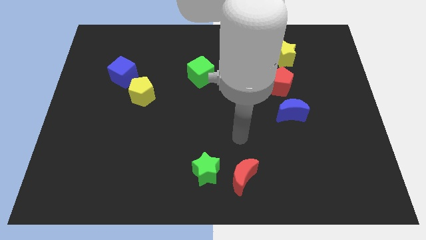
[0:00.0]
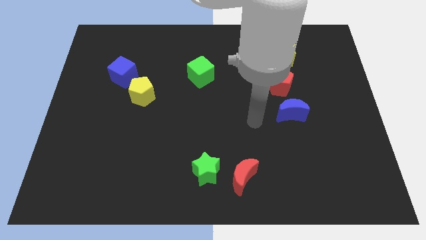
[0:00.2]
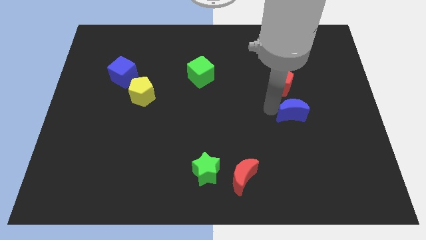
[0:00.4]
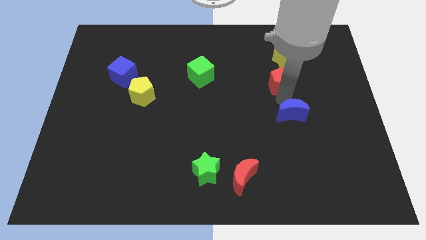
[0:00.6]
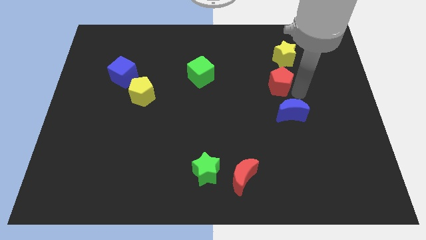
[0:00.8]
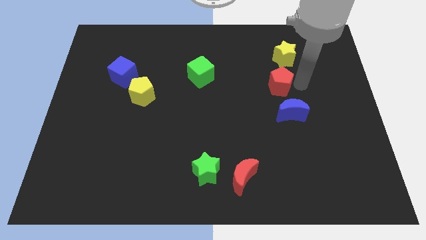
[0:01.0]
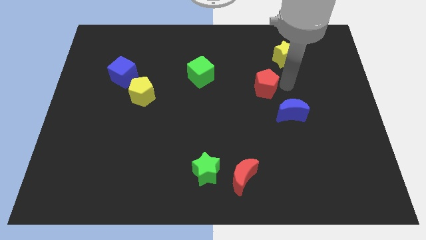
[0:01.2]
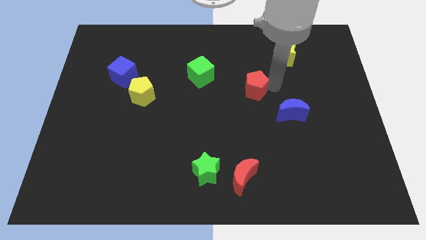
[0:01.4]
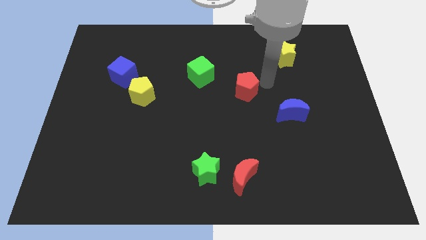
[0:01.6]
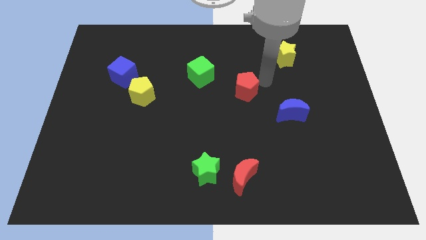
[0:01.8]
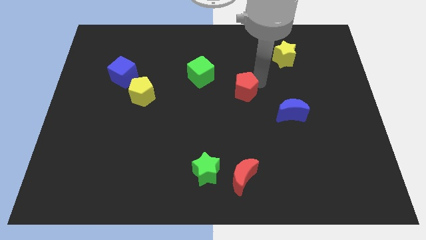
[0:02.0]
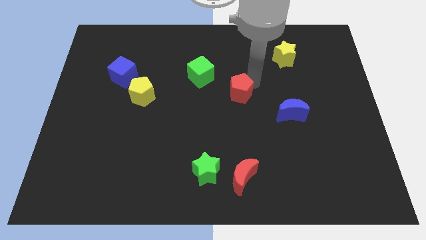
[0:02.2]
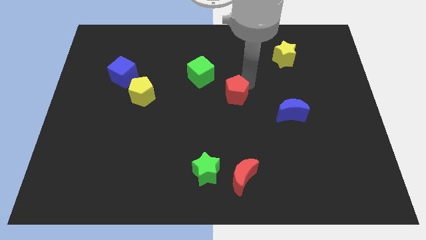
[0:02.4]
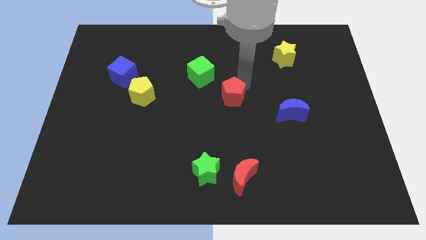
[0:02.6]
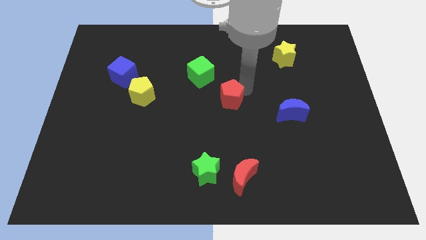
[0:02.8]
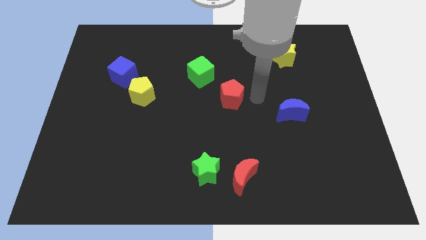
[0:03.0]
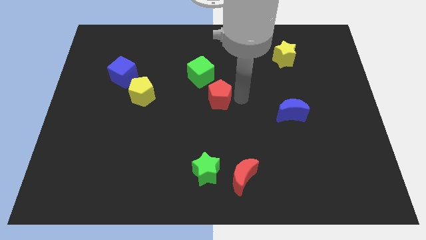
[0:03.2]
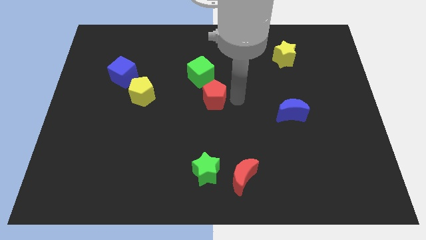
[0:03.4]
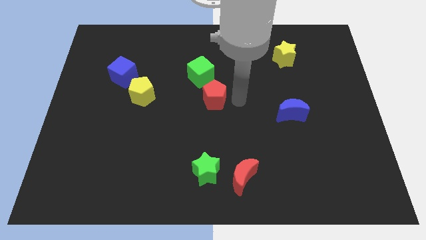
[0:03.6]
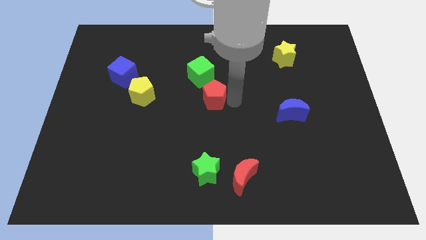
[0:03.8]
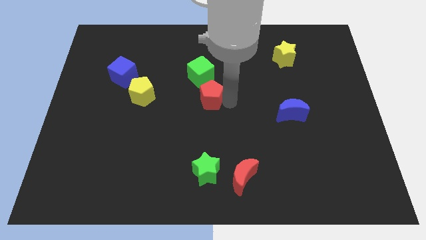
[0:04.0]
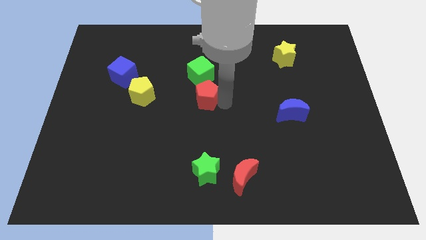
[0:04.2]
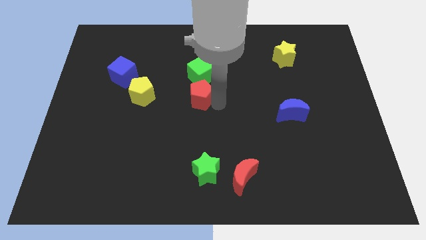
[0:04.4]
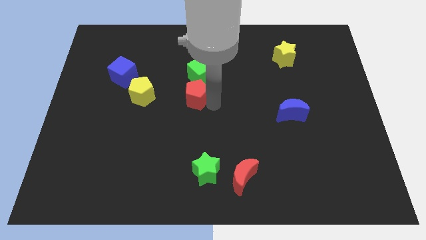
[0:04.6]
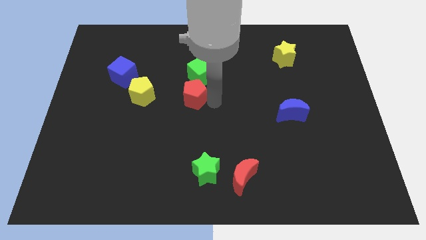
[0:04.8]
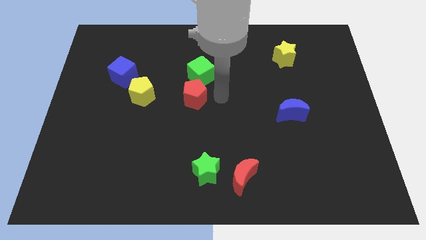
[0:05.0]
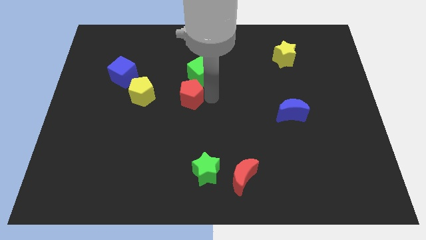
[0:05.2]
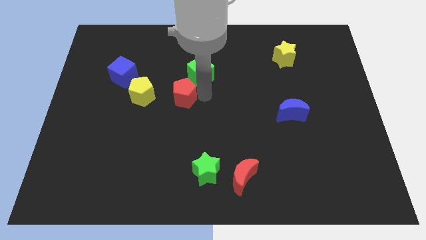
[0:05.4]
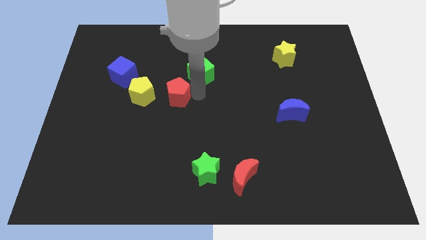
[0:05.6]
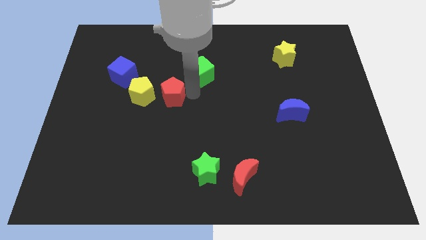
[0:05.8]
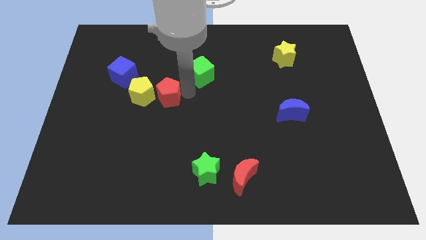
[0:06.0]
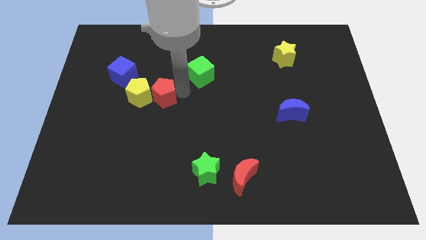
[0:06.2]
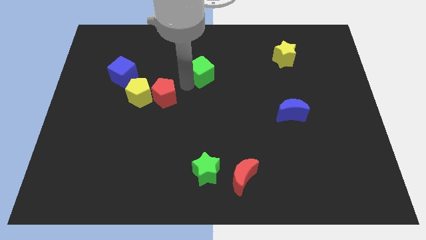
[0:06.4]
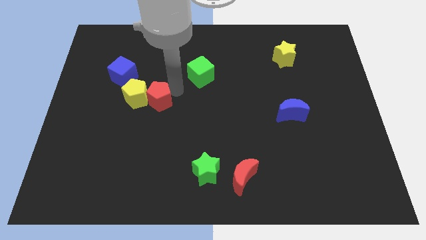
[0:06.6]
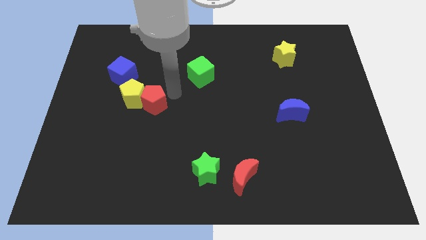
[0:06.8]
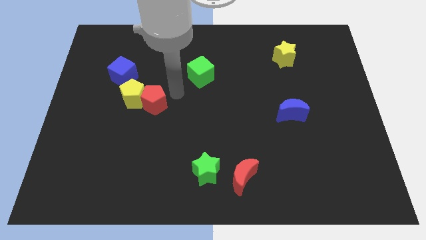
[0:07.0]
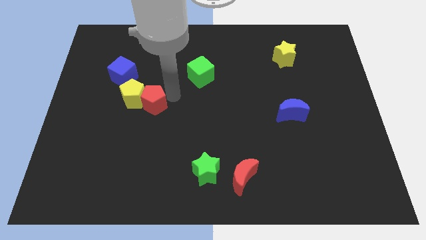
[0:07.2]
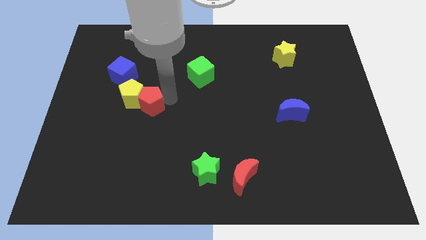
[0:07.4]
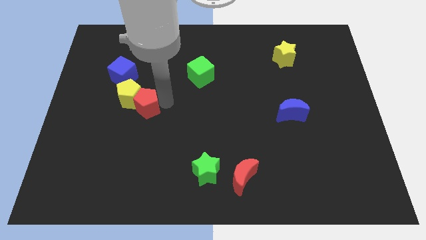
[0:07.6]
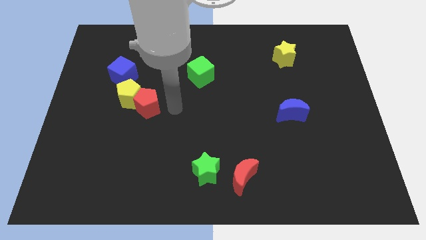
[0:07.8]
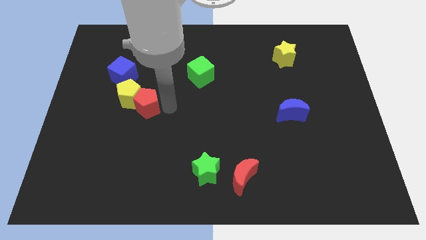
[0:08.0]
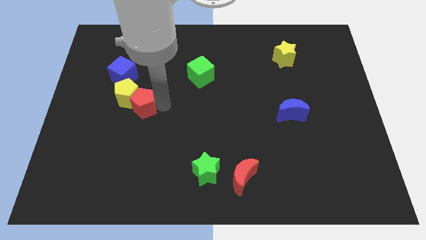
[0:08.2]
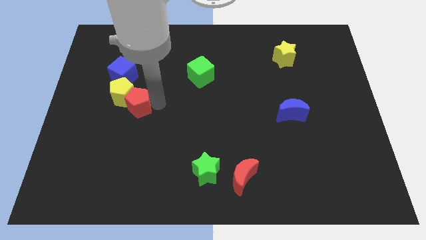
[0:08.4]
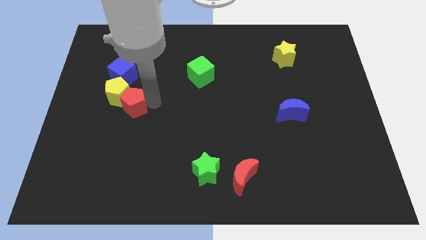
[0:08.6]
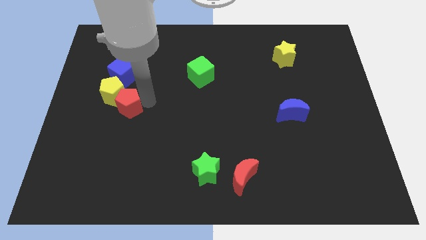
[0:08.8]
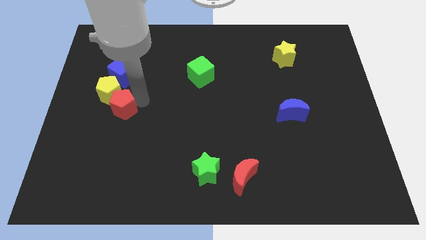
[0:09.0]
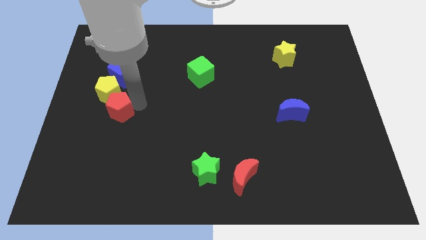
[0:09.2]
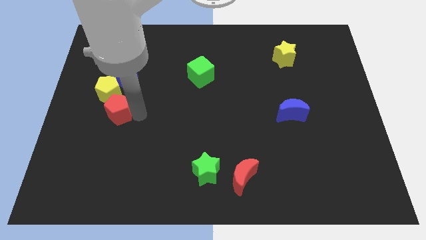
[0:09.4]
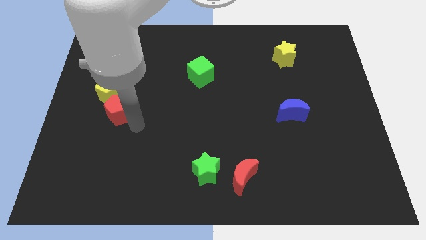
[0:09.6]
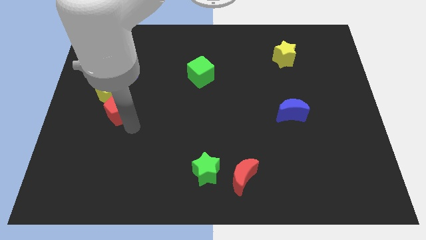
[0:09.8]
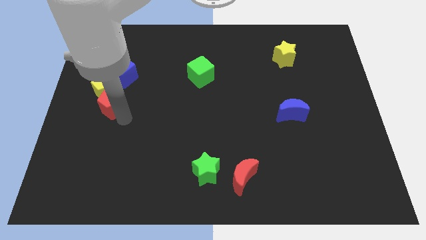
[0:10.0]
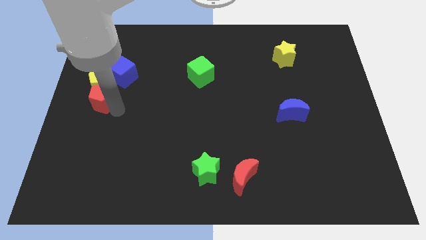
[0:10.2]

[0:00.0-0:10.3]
push the red pentagon to the left side of the board

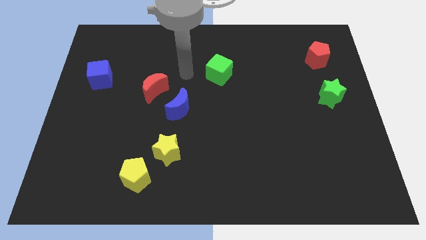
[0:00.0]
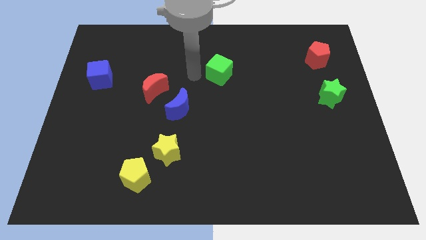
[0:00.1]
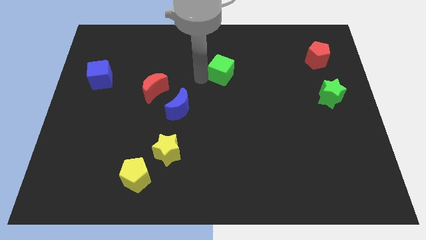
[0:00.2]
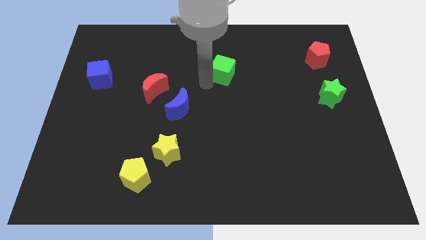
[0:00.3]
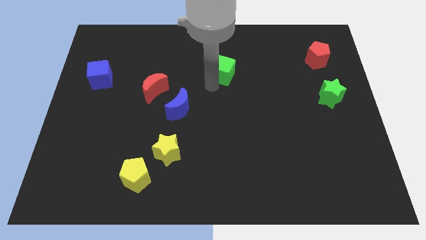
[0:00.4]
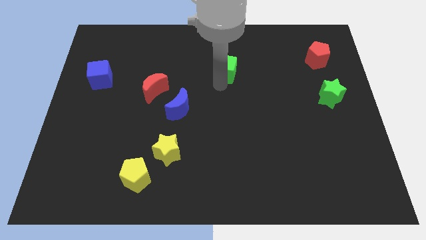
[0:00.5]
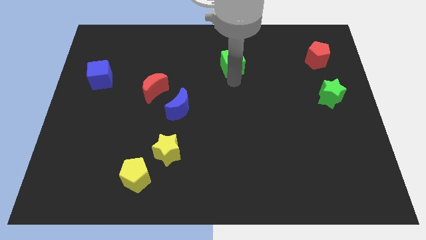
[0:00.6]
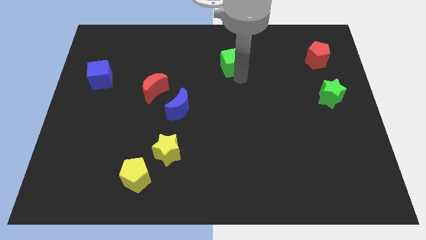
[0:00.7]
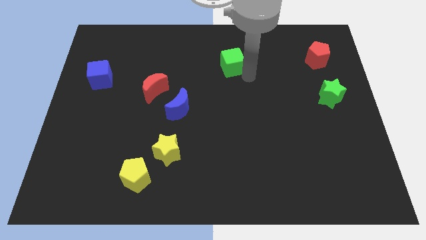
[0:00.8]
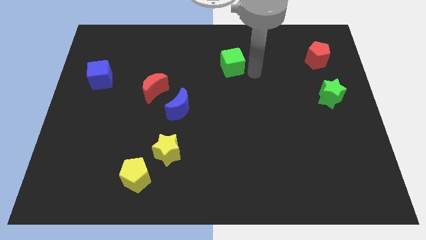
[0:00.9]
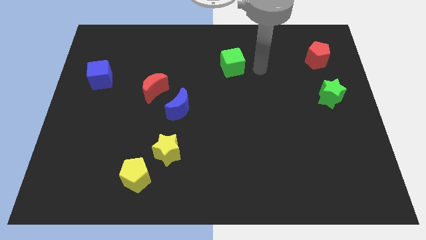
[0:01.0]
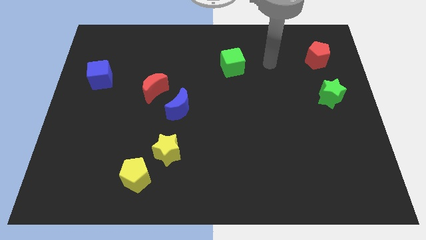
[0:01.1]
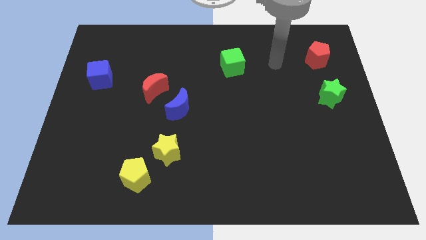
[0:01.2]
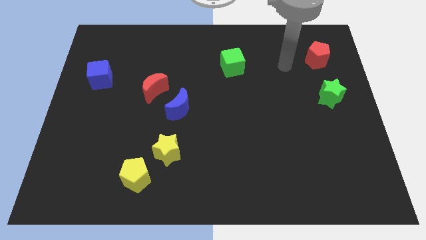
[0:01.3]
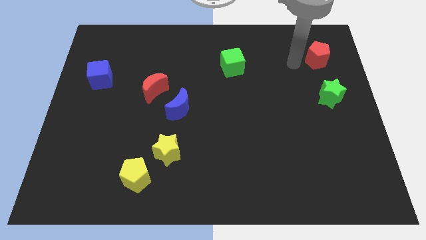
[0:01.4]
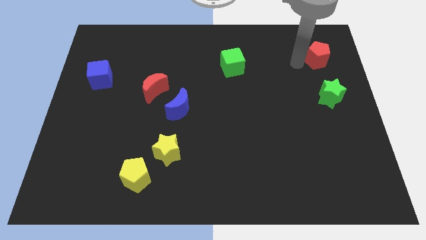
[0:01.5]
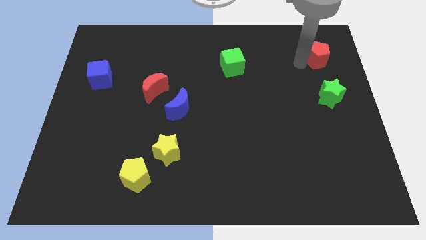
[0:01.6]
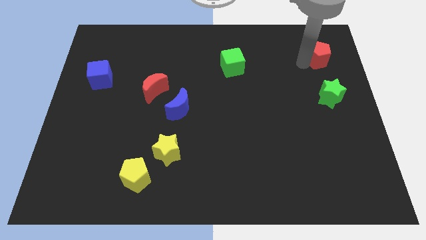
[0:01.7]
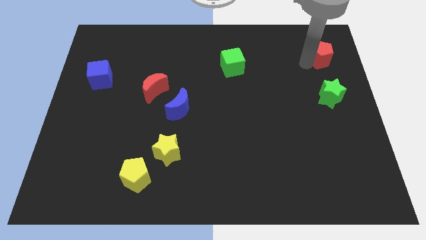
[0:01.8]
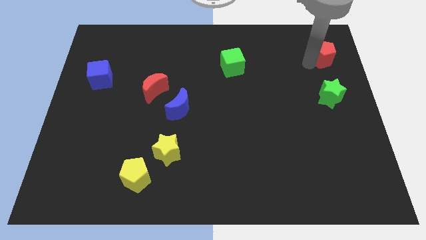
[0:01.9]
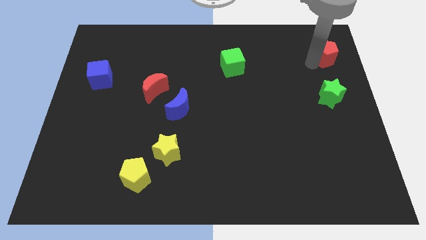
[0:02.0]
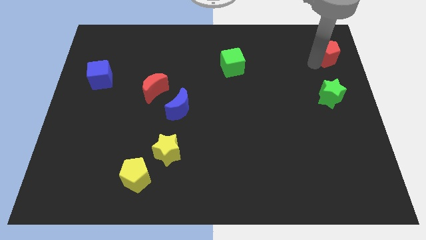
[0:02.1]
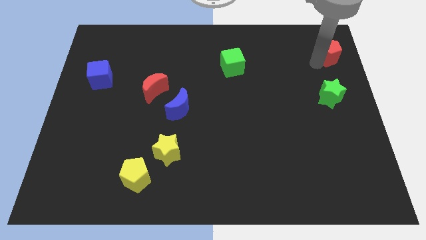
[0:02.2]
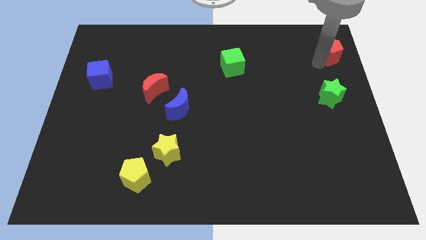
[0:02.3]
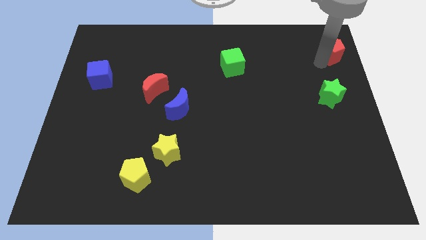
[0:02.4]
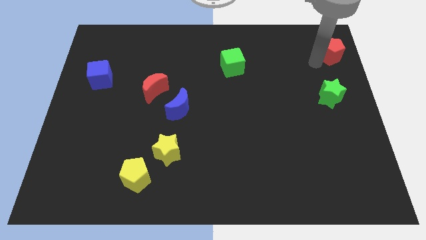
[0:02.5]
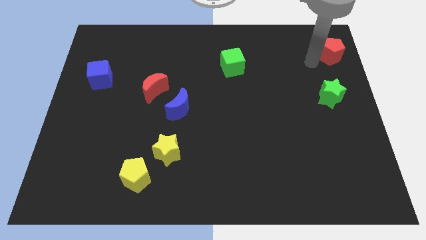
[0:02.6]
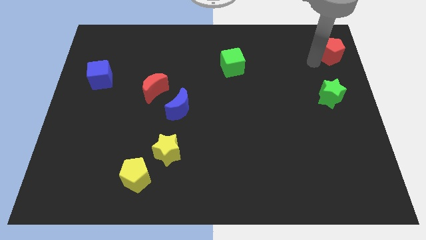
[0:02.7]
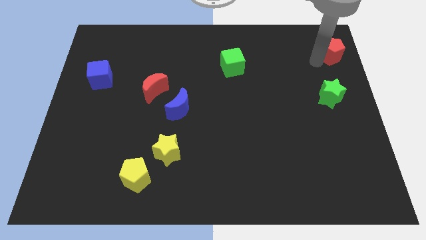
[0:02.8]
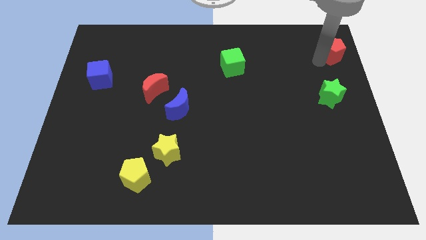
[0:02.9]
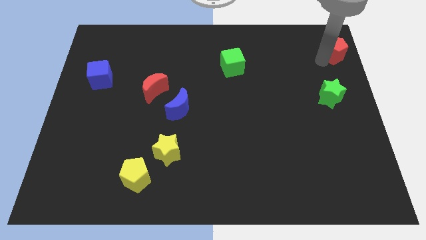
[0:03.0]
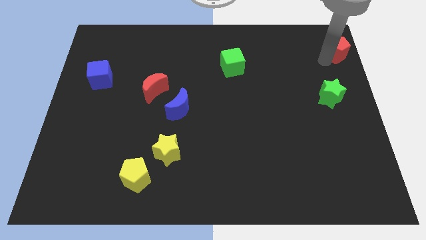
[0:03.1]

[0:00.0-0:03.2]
slide the red pentagon to the top right
